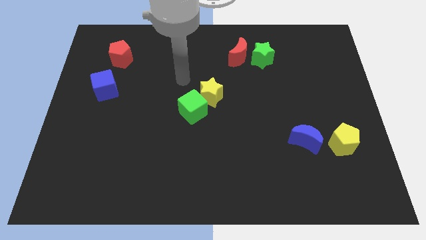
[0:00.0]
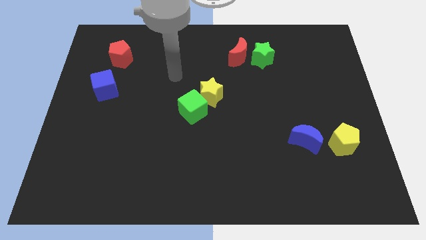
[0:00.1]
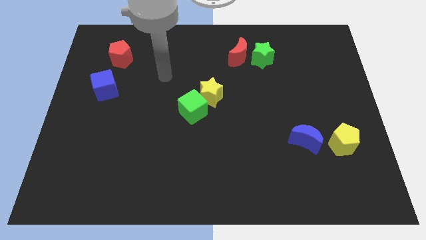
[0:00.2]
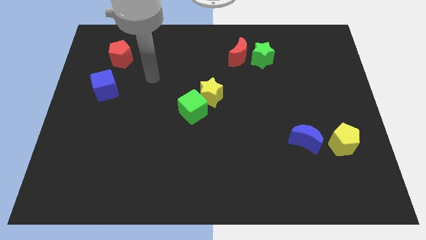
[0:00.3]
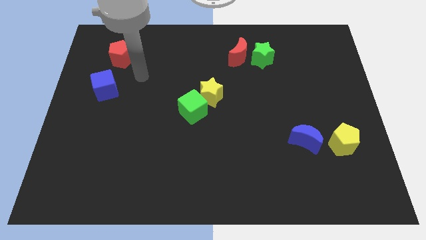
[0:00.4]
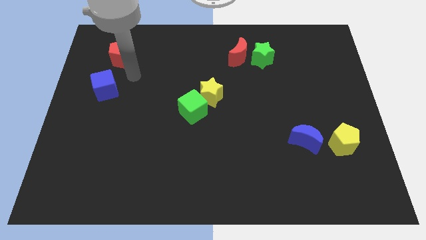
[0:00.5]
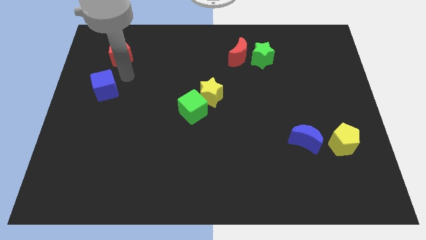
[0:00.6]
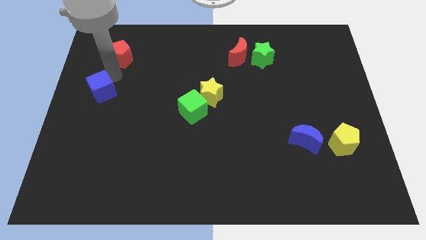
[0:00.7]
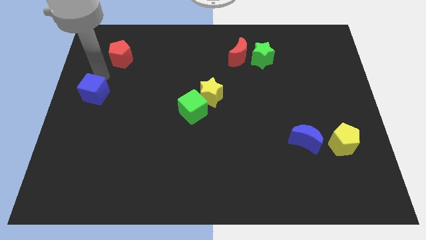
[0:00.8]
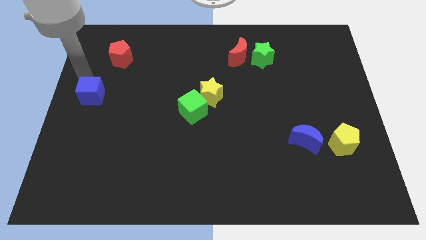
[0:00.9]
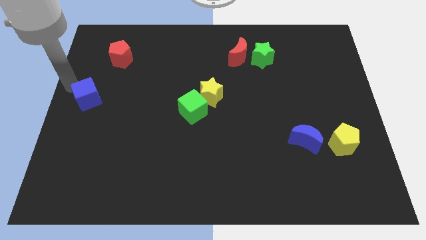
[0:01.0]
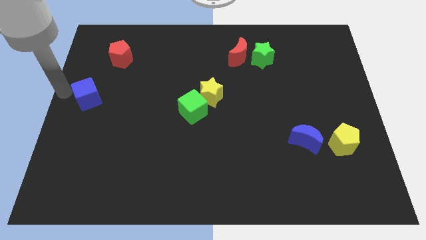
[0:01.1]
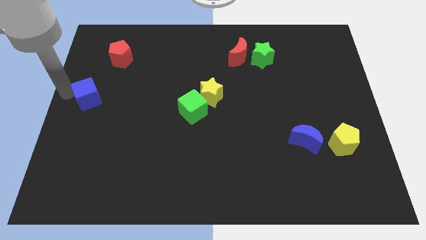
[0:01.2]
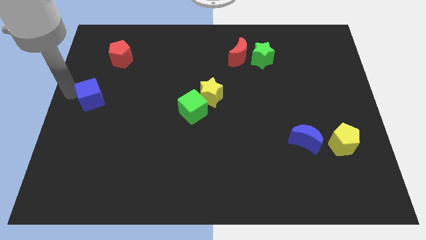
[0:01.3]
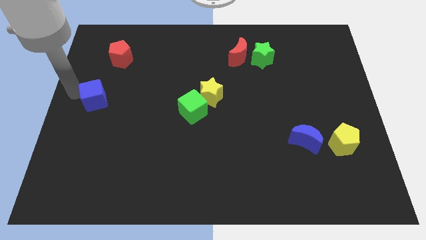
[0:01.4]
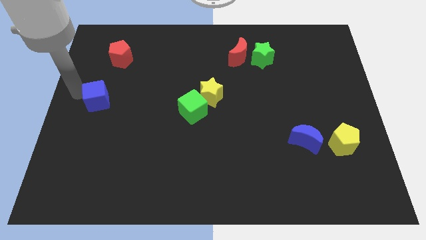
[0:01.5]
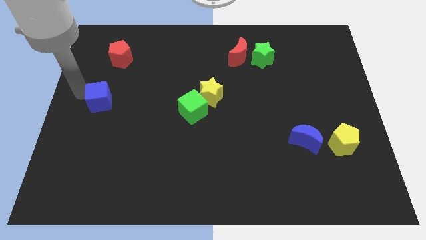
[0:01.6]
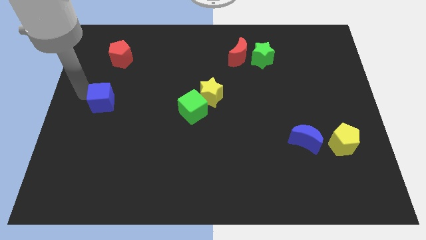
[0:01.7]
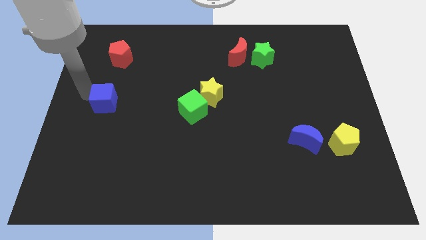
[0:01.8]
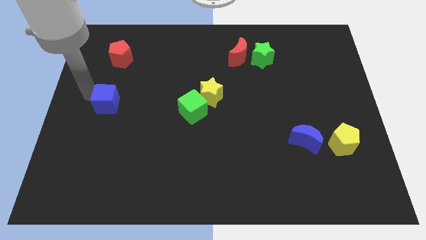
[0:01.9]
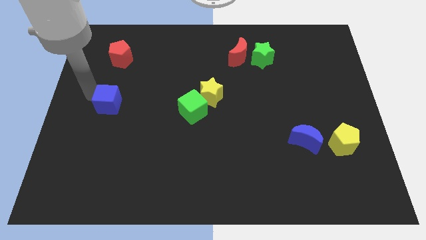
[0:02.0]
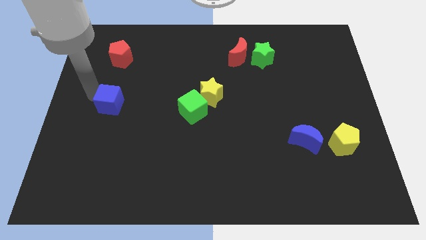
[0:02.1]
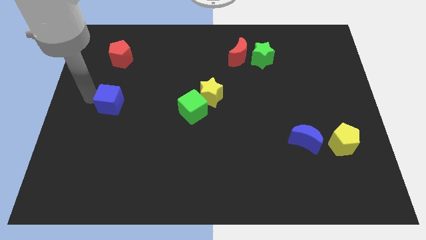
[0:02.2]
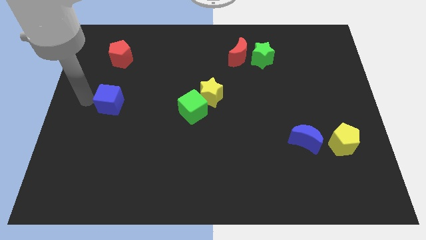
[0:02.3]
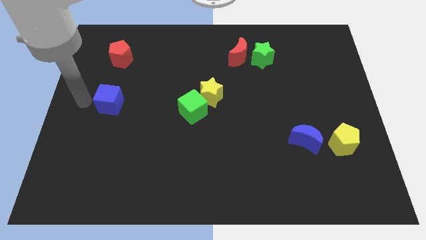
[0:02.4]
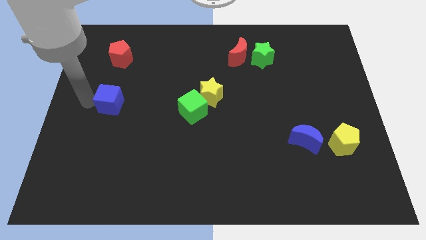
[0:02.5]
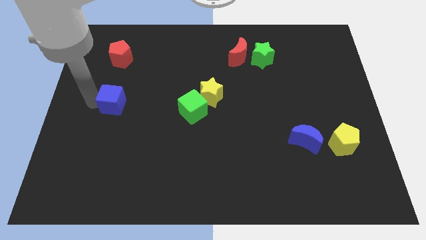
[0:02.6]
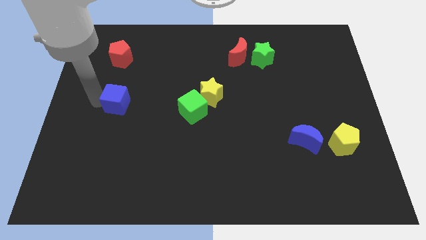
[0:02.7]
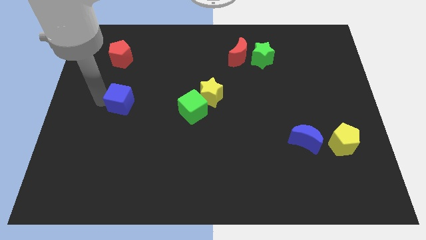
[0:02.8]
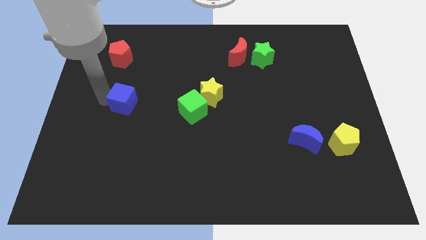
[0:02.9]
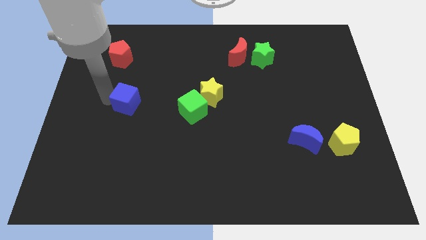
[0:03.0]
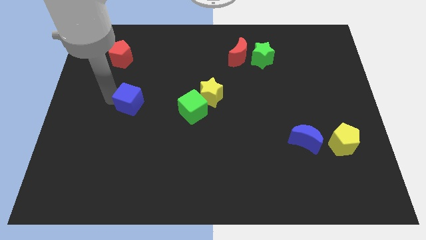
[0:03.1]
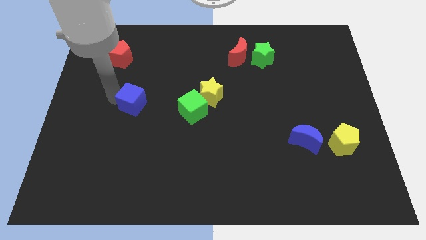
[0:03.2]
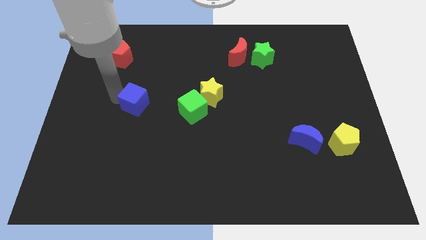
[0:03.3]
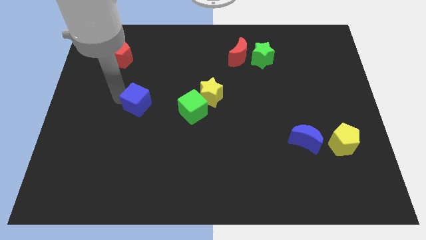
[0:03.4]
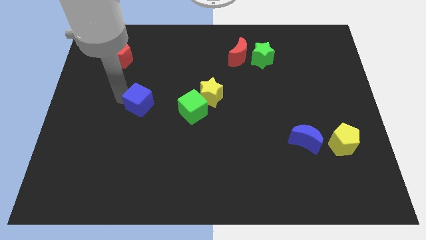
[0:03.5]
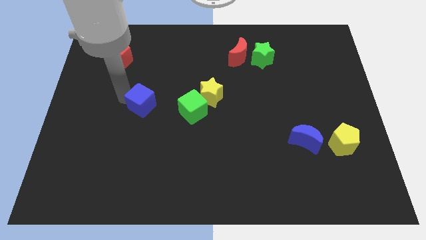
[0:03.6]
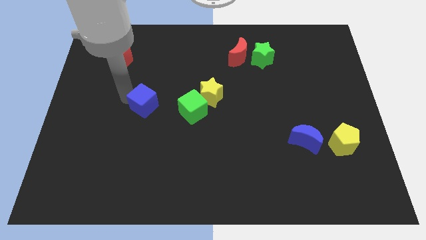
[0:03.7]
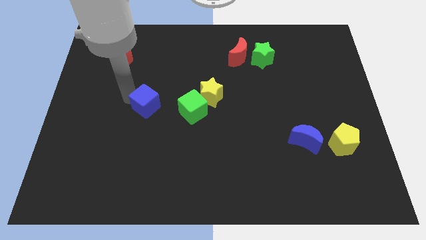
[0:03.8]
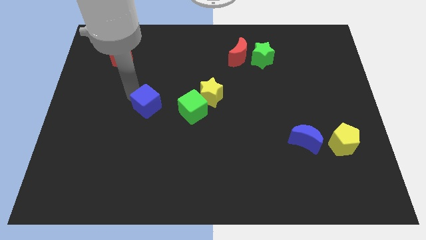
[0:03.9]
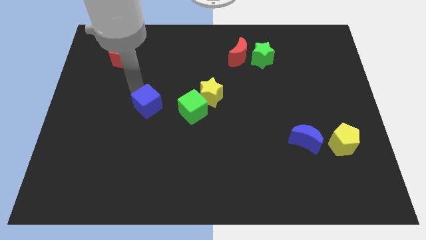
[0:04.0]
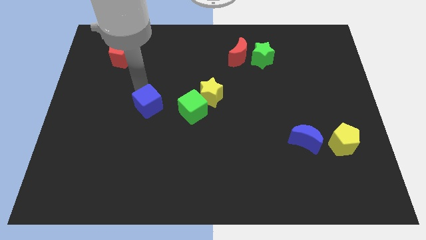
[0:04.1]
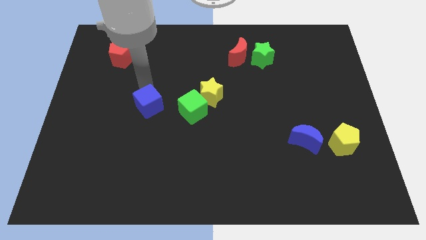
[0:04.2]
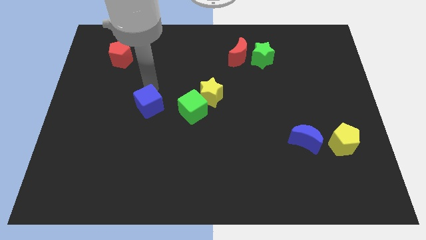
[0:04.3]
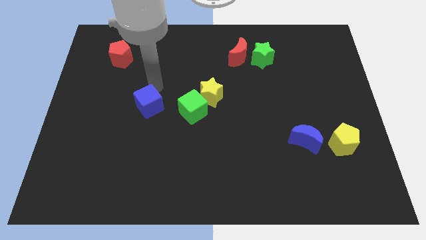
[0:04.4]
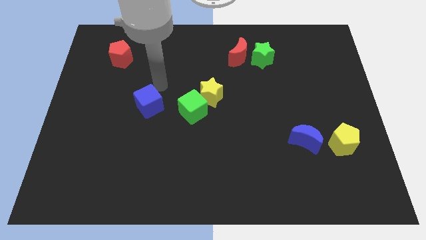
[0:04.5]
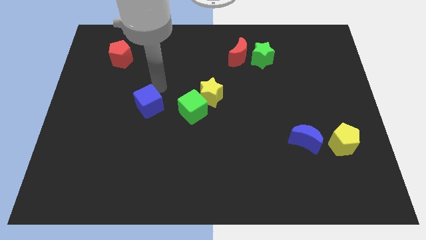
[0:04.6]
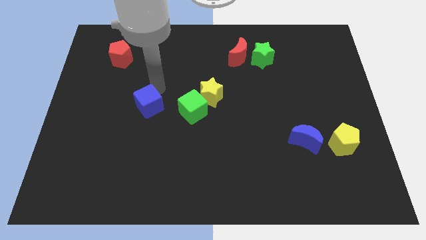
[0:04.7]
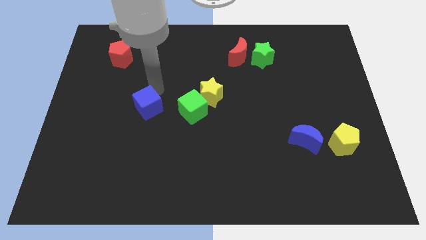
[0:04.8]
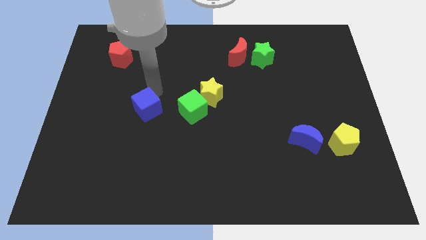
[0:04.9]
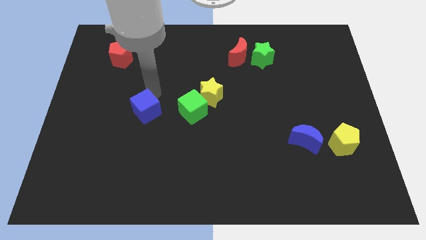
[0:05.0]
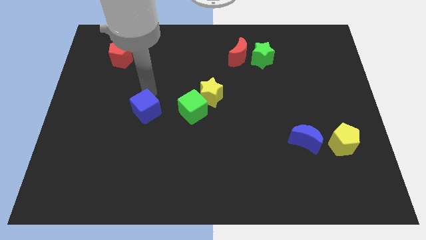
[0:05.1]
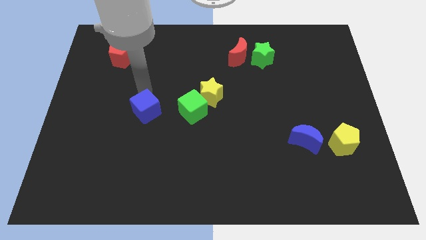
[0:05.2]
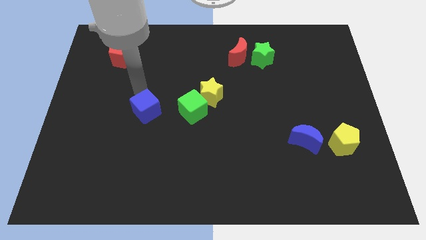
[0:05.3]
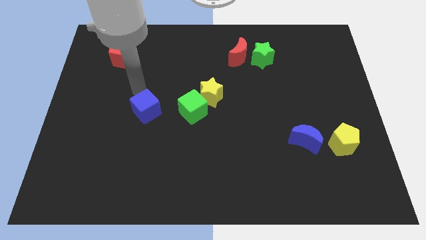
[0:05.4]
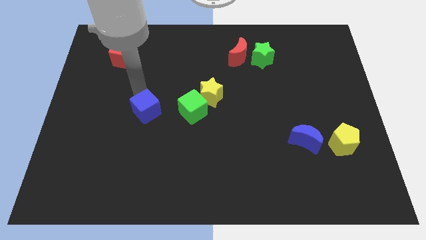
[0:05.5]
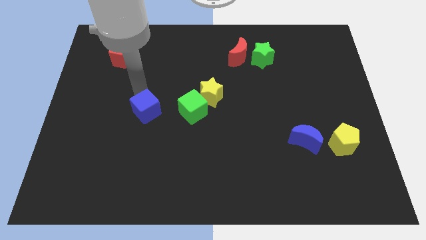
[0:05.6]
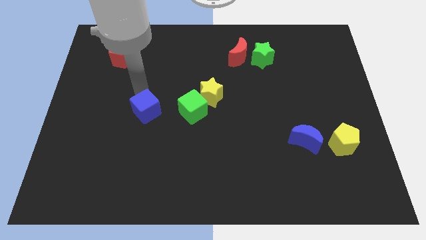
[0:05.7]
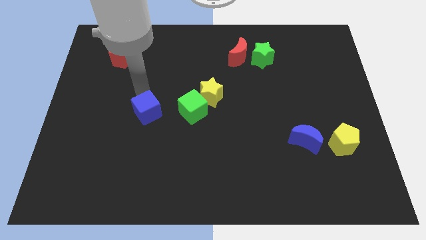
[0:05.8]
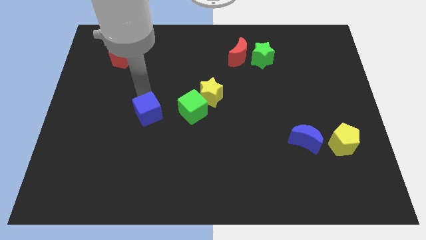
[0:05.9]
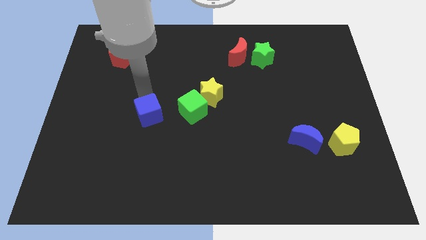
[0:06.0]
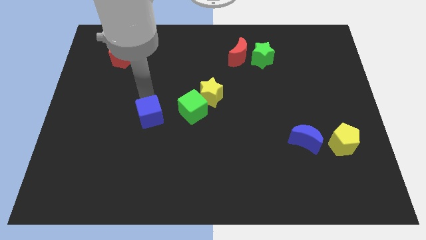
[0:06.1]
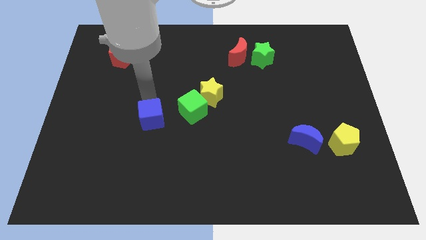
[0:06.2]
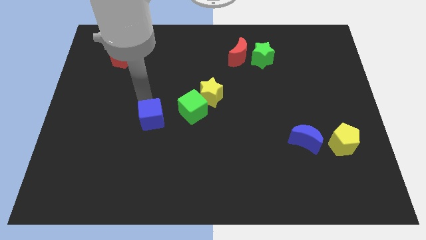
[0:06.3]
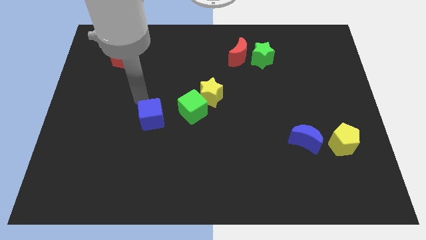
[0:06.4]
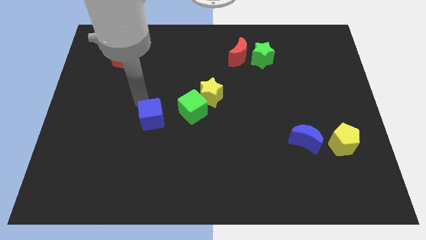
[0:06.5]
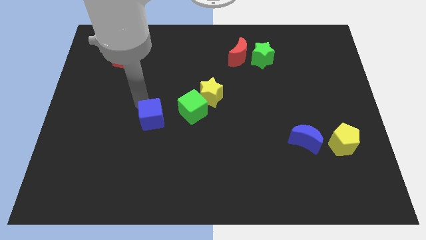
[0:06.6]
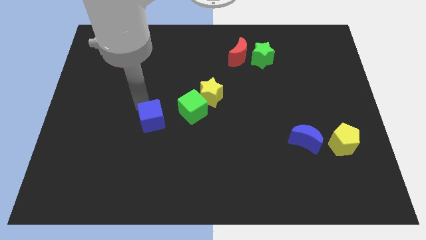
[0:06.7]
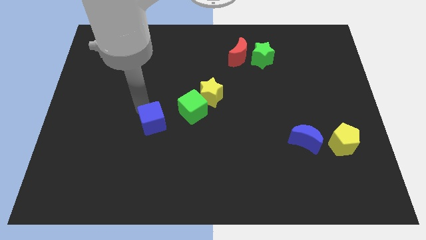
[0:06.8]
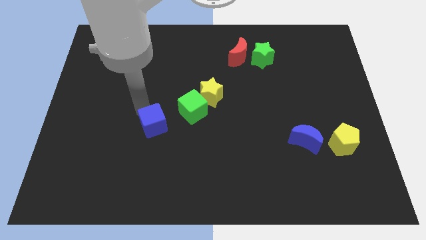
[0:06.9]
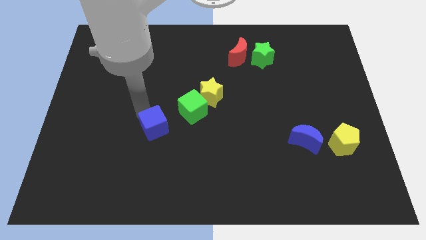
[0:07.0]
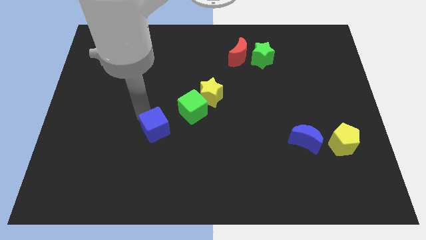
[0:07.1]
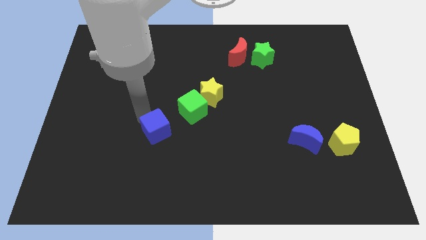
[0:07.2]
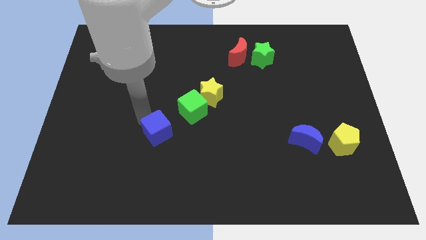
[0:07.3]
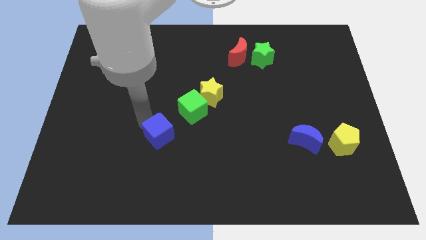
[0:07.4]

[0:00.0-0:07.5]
move the blue cube downwards and right

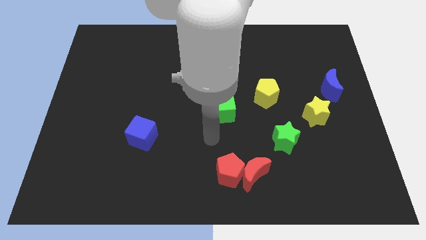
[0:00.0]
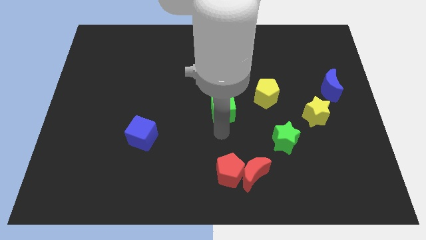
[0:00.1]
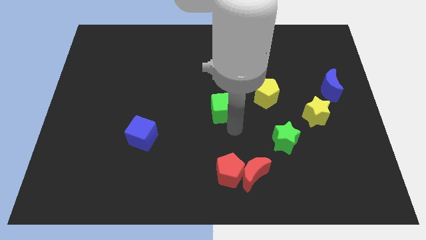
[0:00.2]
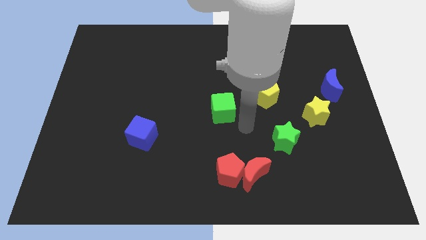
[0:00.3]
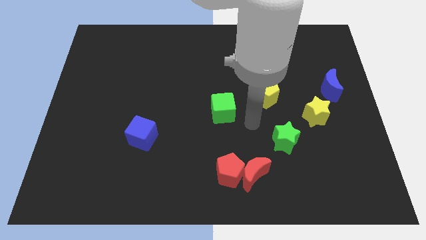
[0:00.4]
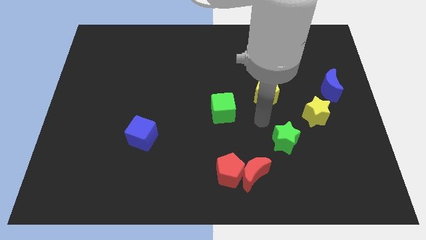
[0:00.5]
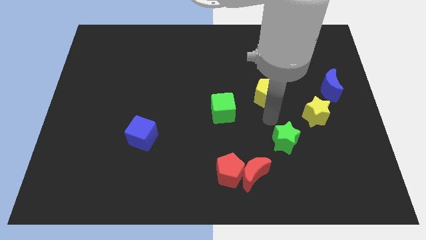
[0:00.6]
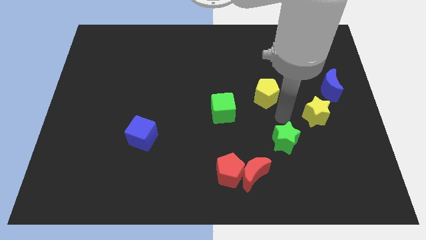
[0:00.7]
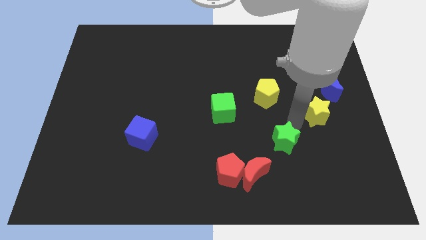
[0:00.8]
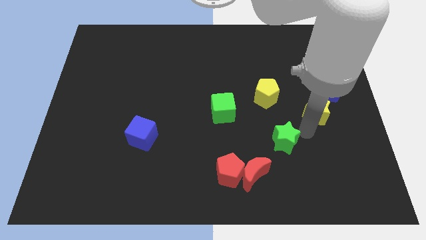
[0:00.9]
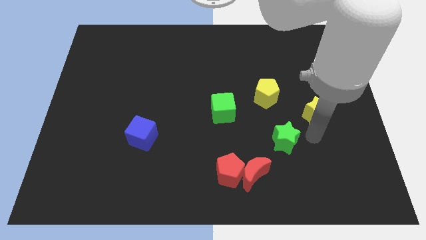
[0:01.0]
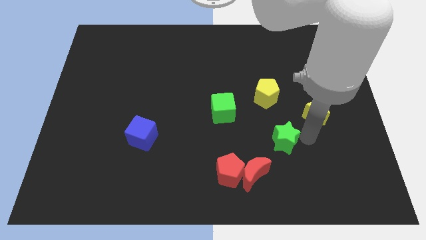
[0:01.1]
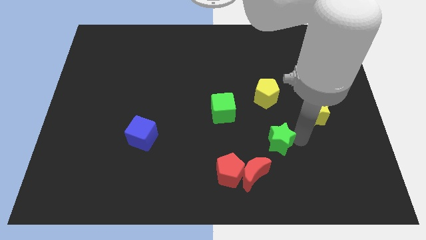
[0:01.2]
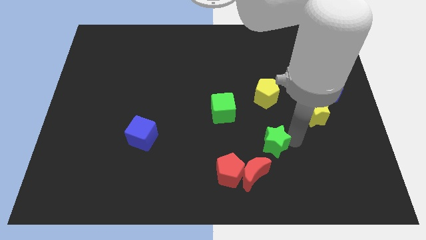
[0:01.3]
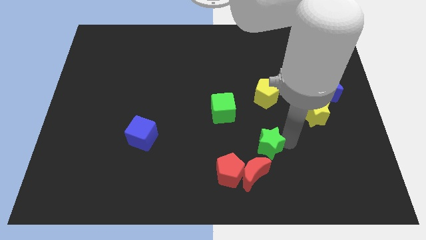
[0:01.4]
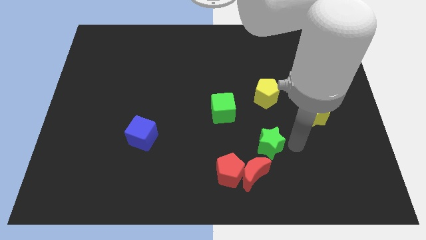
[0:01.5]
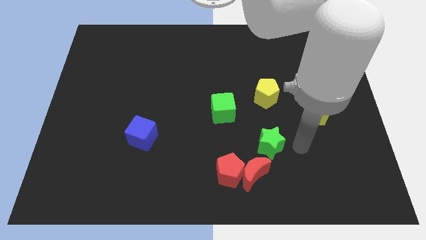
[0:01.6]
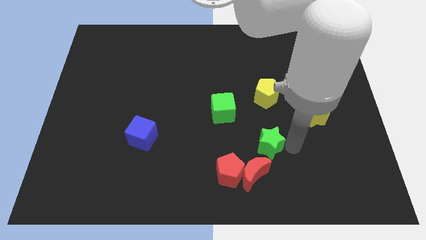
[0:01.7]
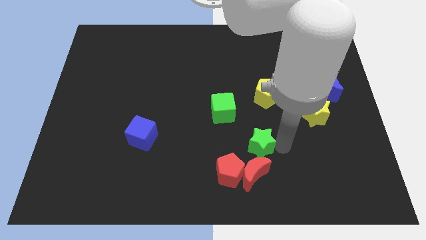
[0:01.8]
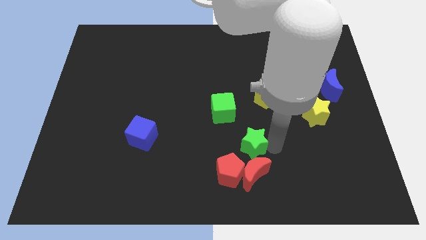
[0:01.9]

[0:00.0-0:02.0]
push the green star somewhat to the left
